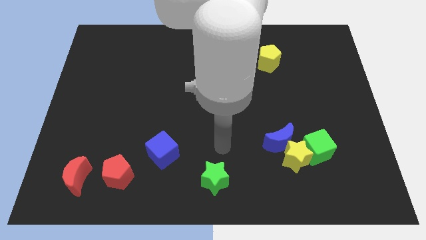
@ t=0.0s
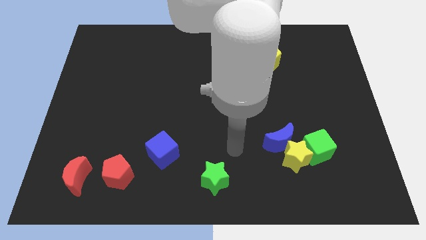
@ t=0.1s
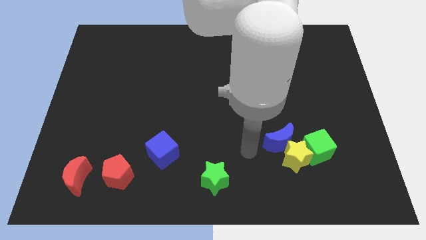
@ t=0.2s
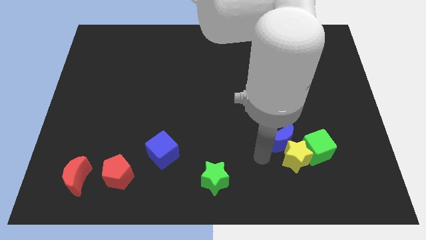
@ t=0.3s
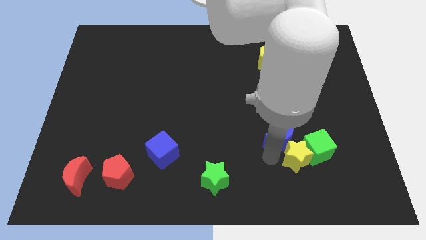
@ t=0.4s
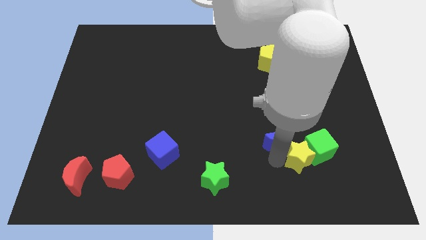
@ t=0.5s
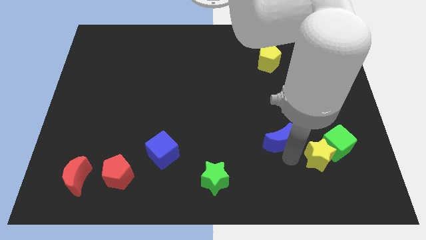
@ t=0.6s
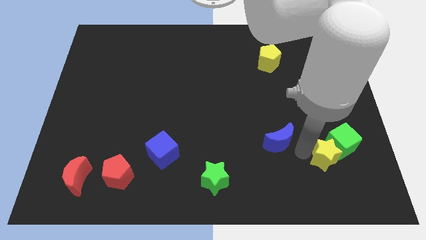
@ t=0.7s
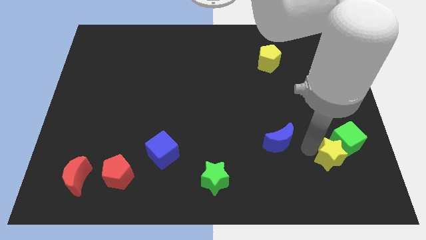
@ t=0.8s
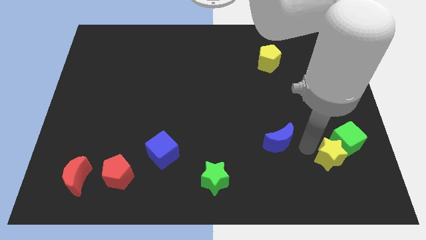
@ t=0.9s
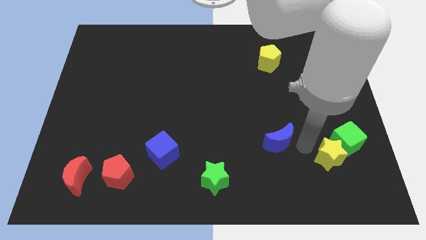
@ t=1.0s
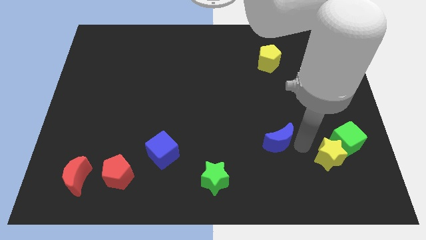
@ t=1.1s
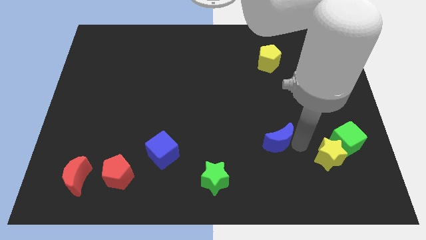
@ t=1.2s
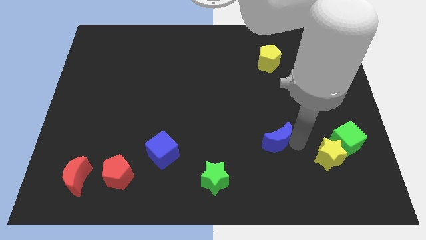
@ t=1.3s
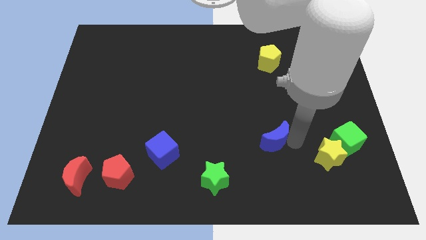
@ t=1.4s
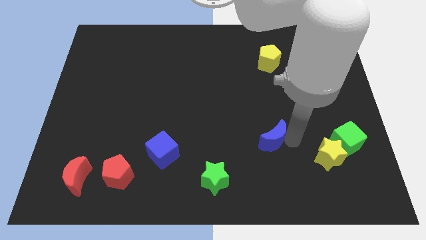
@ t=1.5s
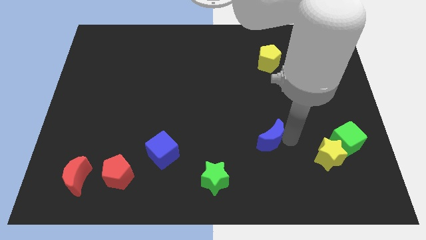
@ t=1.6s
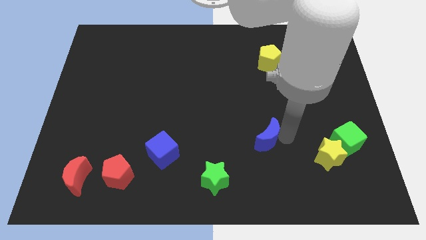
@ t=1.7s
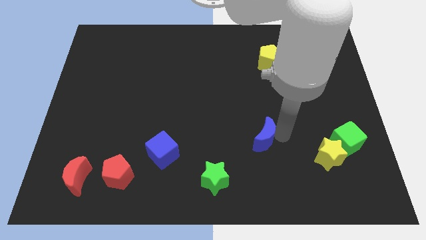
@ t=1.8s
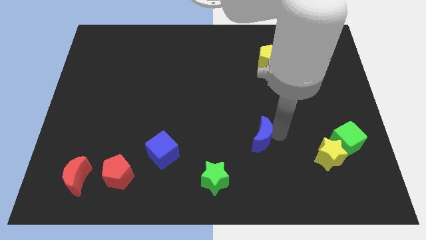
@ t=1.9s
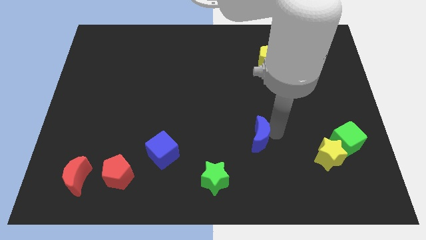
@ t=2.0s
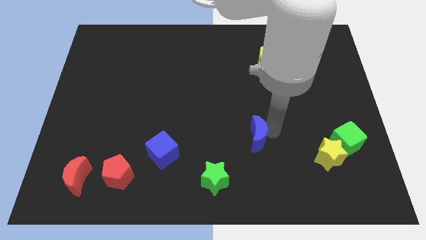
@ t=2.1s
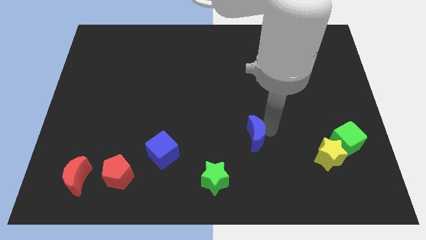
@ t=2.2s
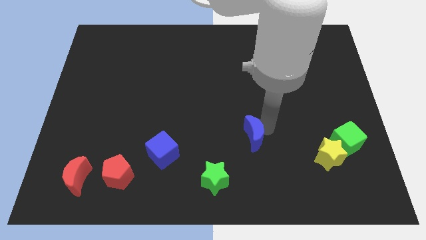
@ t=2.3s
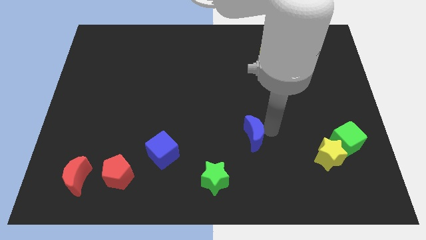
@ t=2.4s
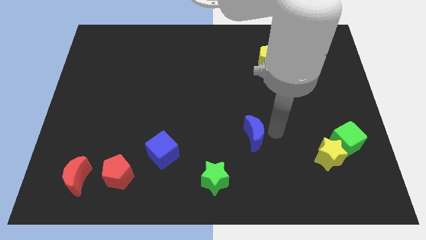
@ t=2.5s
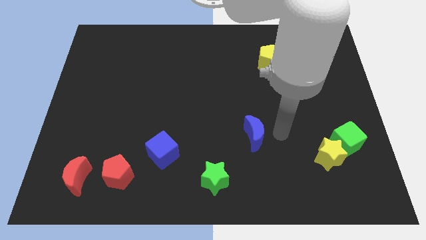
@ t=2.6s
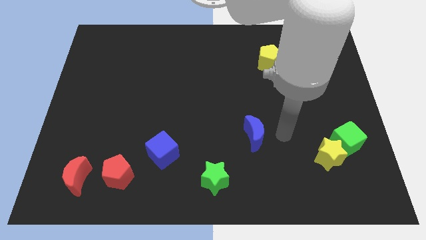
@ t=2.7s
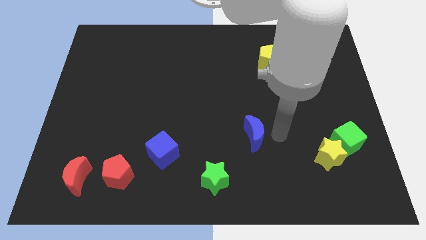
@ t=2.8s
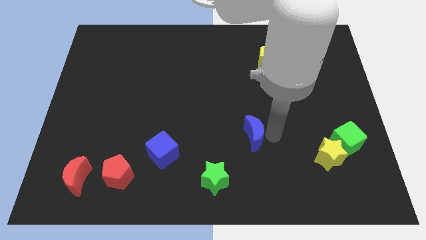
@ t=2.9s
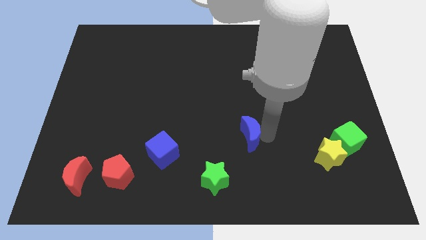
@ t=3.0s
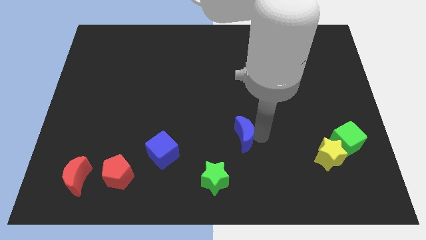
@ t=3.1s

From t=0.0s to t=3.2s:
move the blue moon to the left somewhat

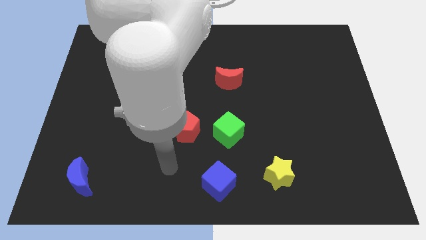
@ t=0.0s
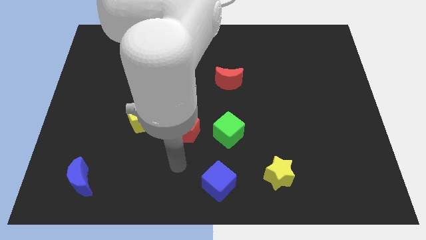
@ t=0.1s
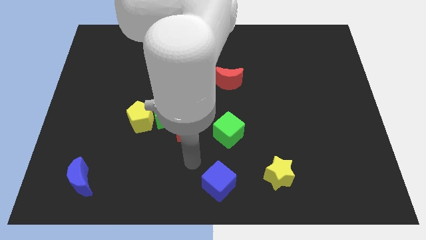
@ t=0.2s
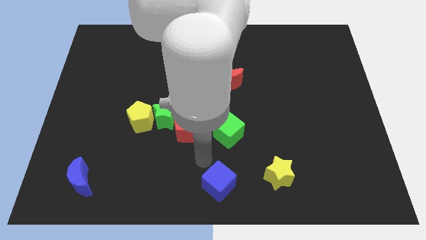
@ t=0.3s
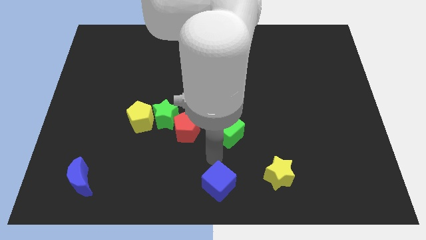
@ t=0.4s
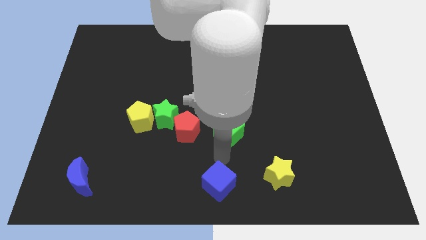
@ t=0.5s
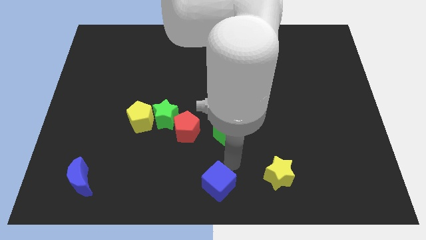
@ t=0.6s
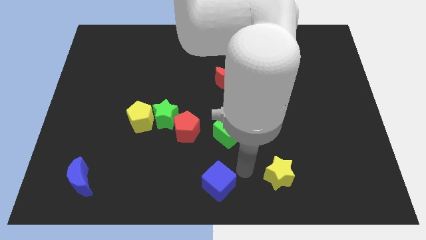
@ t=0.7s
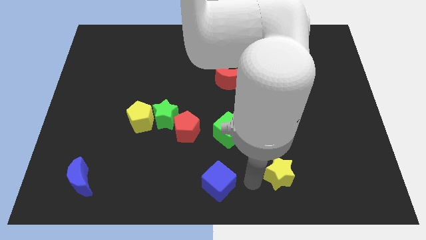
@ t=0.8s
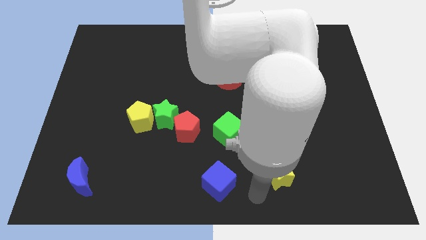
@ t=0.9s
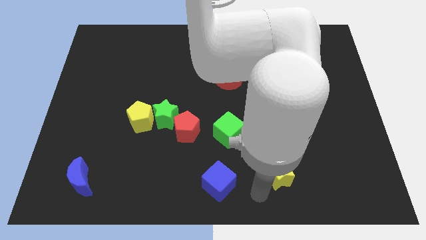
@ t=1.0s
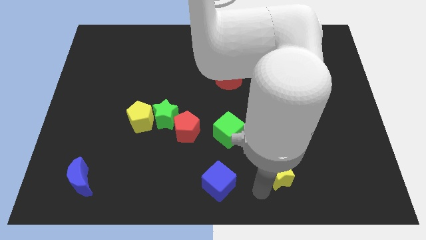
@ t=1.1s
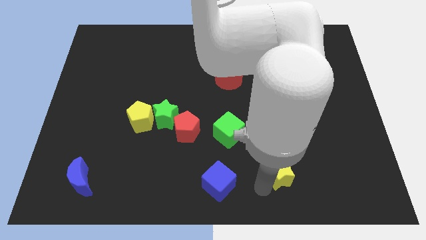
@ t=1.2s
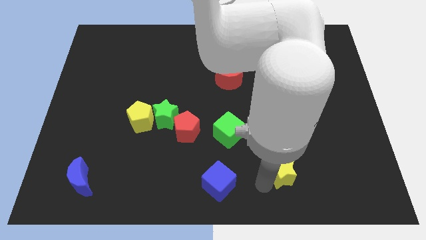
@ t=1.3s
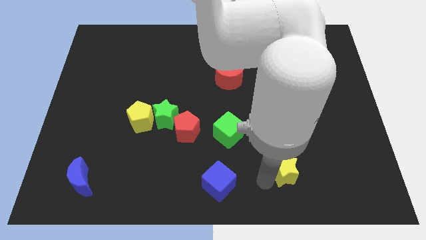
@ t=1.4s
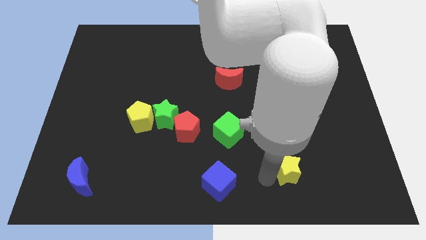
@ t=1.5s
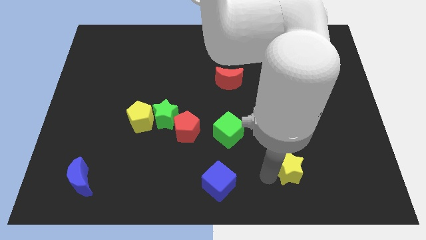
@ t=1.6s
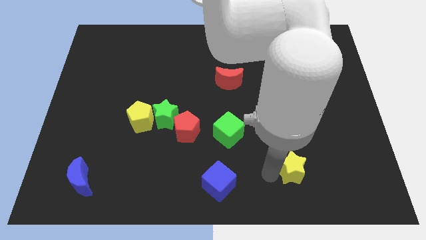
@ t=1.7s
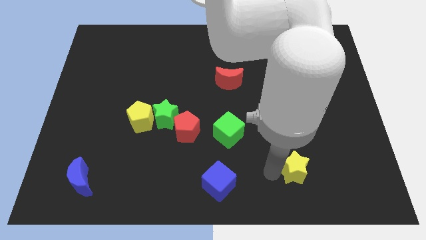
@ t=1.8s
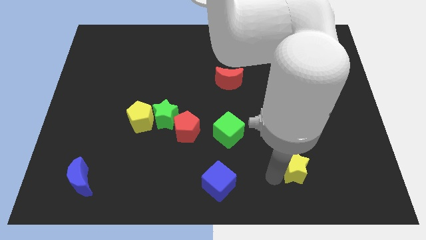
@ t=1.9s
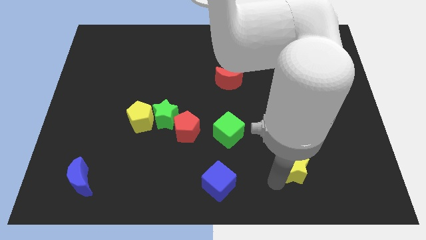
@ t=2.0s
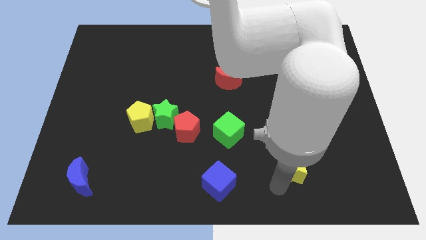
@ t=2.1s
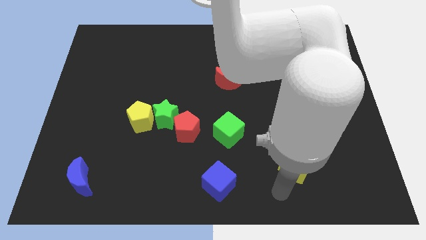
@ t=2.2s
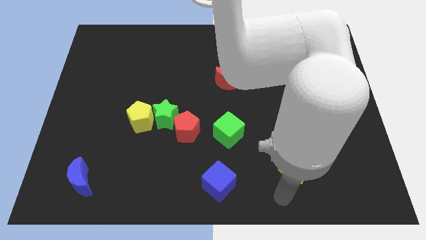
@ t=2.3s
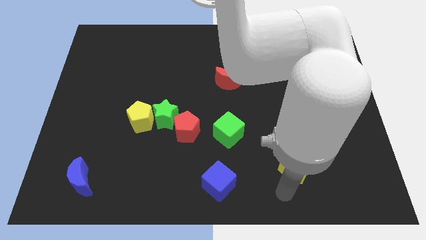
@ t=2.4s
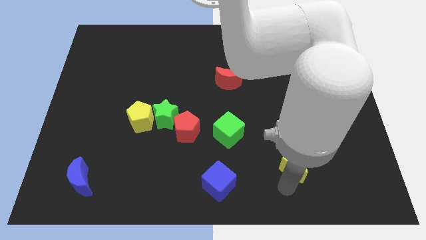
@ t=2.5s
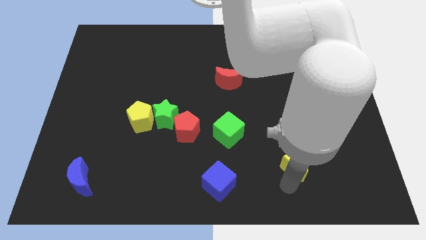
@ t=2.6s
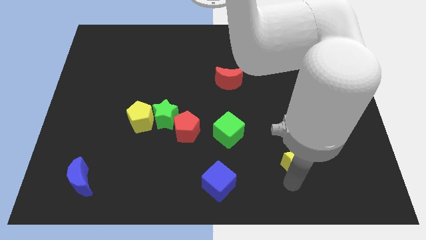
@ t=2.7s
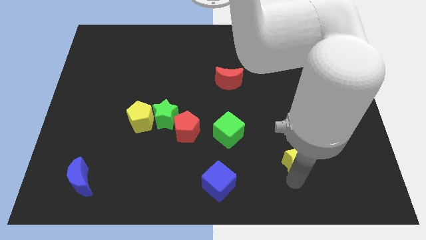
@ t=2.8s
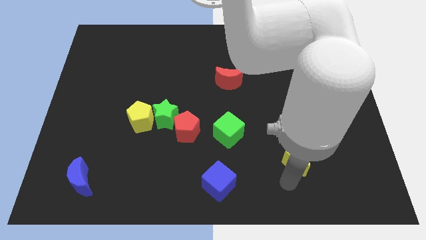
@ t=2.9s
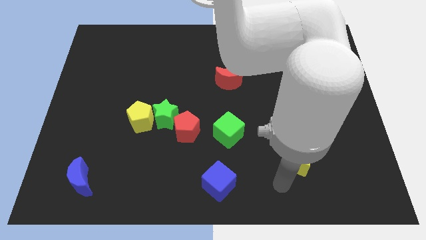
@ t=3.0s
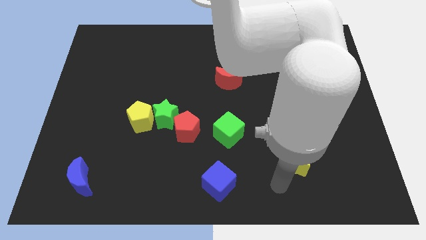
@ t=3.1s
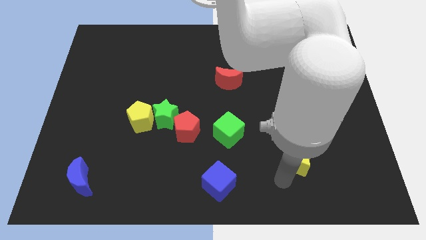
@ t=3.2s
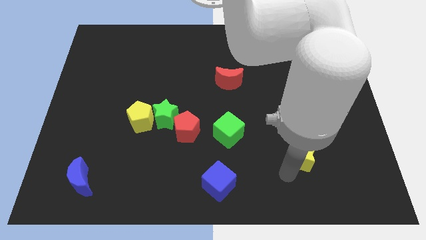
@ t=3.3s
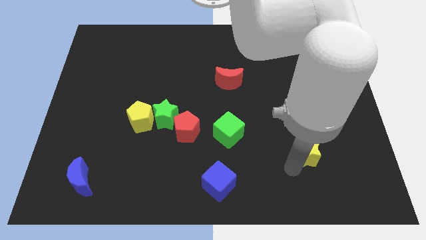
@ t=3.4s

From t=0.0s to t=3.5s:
slightly push the yellow star up and then right

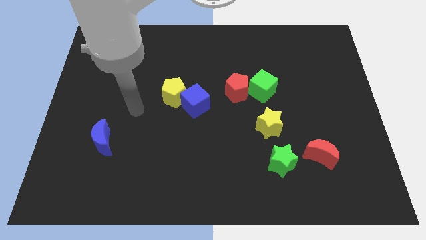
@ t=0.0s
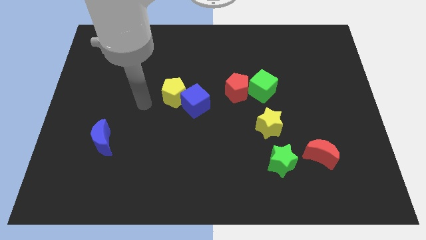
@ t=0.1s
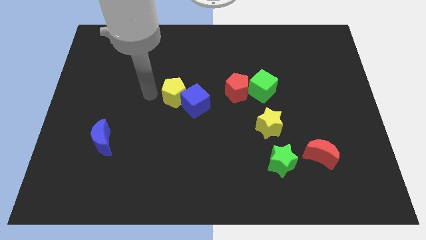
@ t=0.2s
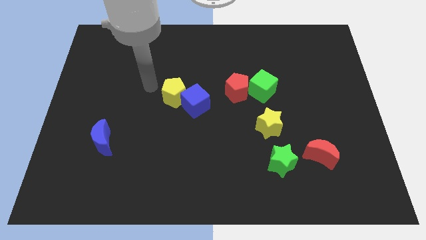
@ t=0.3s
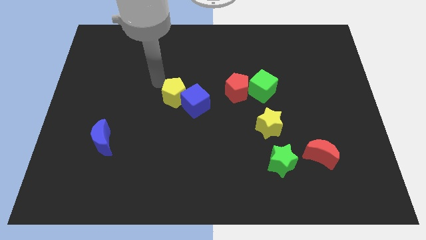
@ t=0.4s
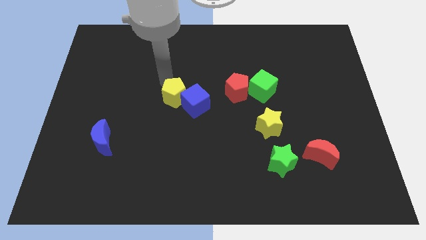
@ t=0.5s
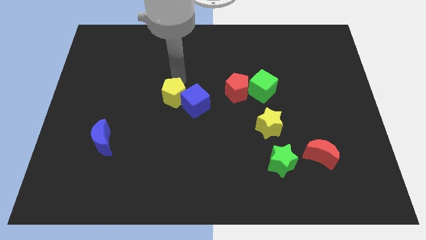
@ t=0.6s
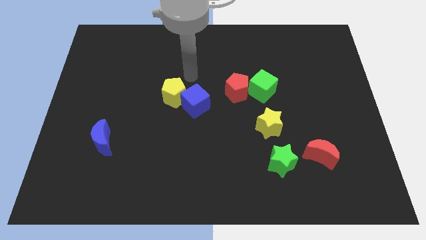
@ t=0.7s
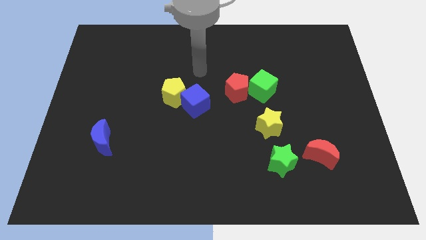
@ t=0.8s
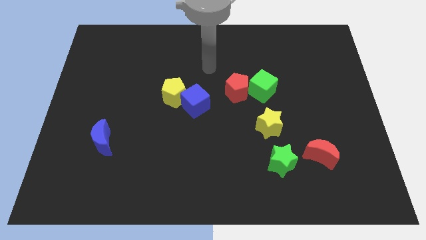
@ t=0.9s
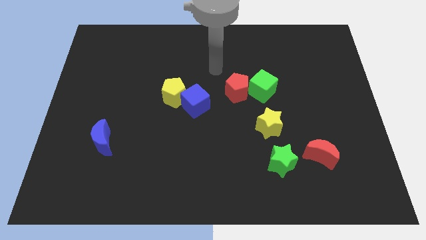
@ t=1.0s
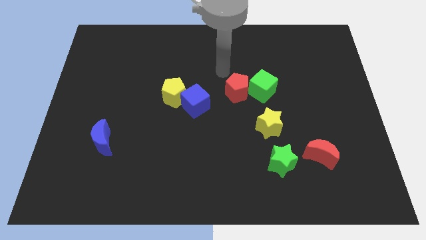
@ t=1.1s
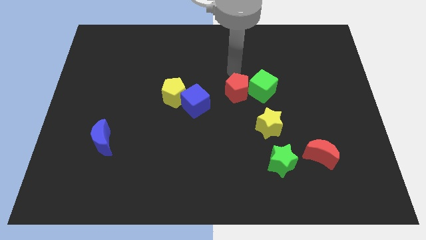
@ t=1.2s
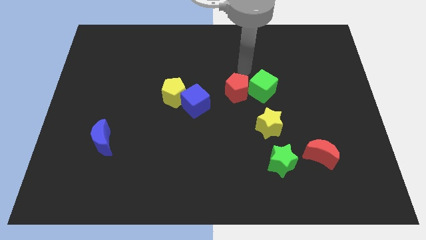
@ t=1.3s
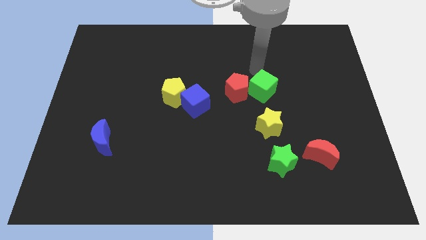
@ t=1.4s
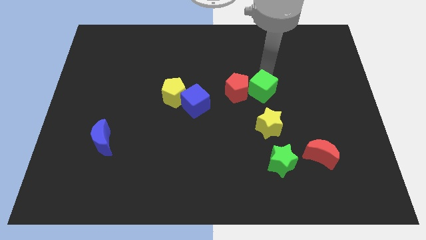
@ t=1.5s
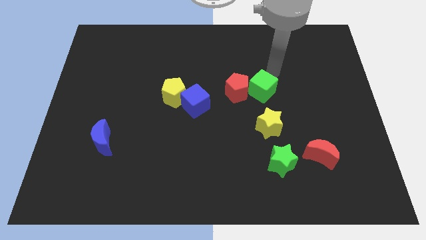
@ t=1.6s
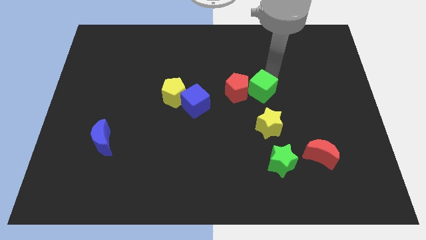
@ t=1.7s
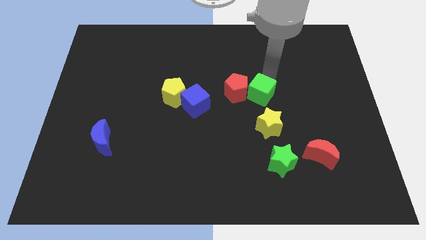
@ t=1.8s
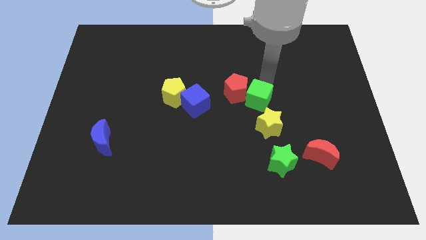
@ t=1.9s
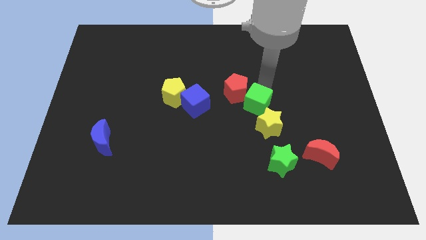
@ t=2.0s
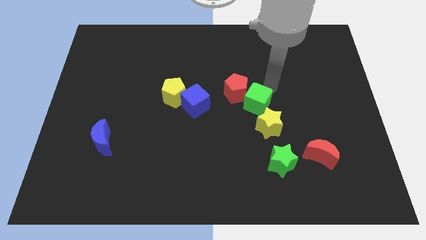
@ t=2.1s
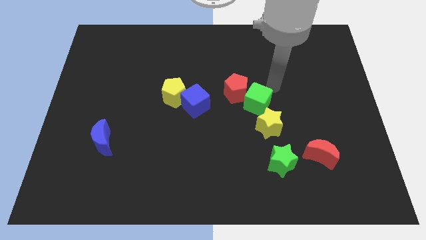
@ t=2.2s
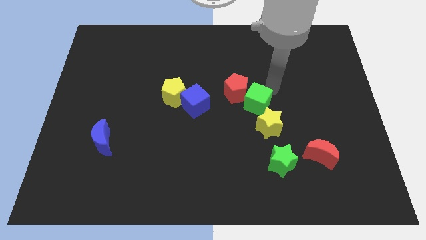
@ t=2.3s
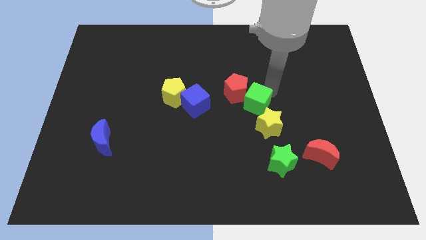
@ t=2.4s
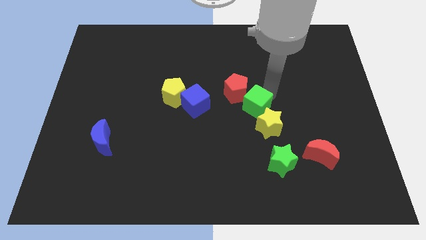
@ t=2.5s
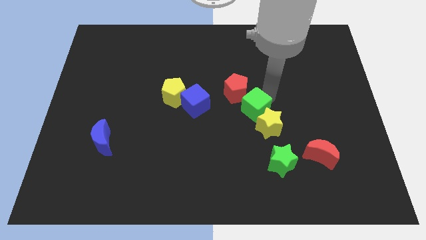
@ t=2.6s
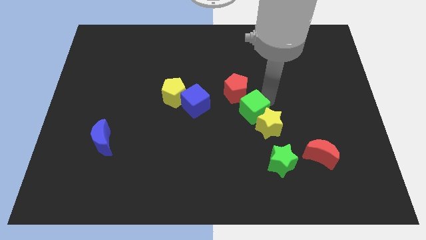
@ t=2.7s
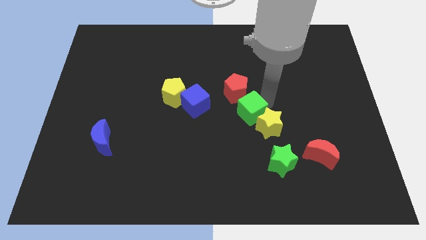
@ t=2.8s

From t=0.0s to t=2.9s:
move the green cube down and then left a bit
